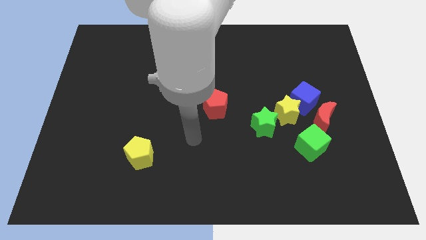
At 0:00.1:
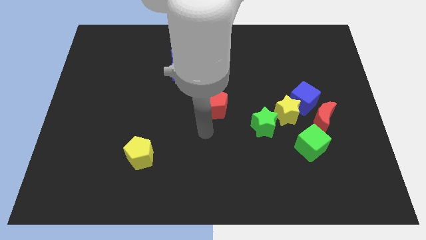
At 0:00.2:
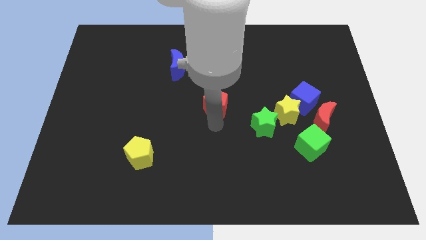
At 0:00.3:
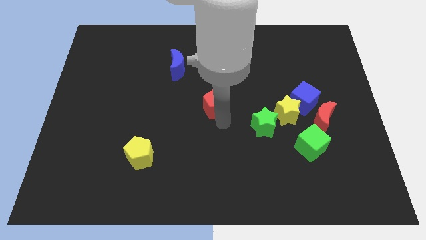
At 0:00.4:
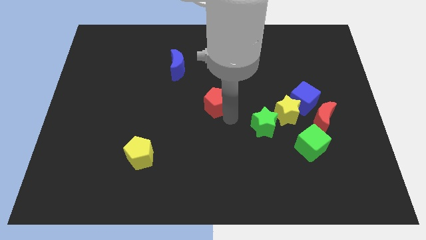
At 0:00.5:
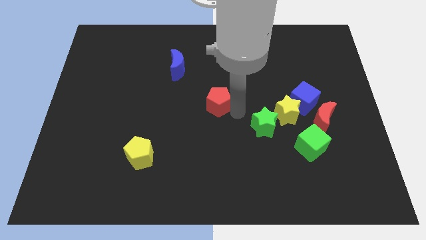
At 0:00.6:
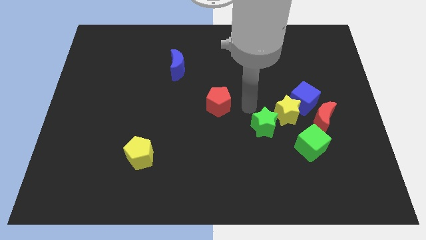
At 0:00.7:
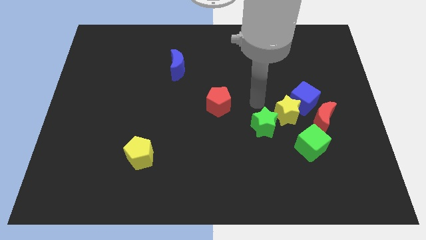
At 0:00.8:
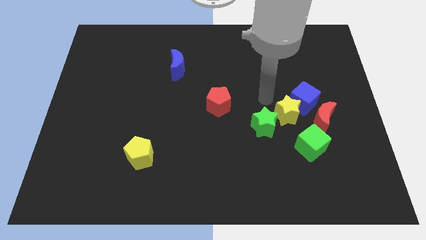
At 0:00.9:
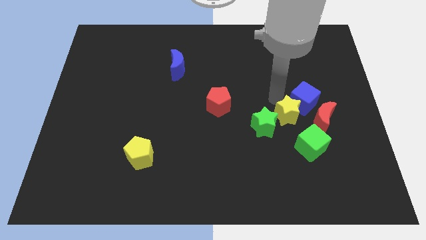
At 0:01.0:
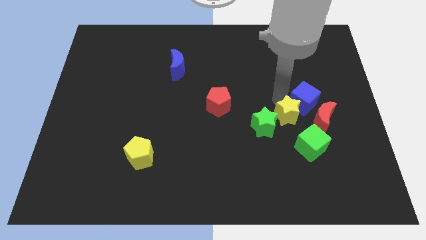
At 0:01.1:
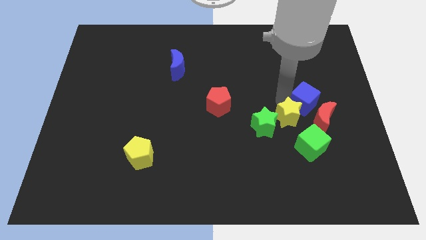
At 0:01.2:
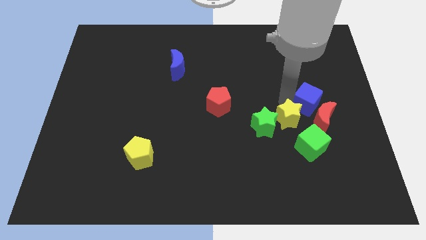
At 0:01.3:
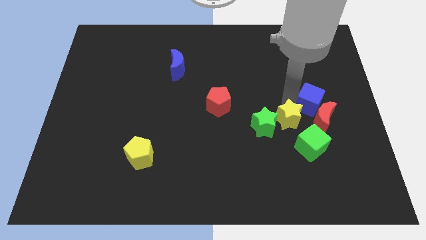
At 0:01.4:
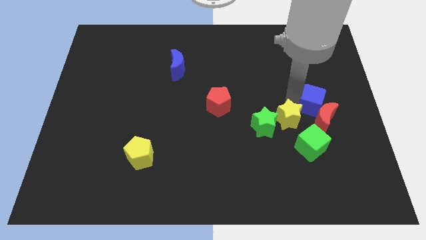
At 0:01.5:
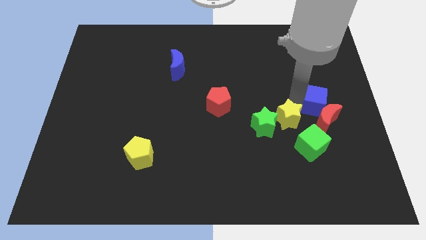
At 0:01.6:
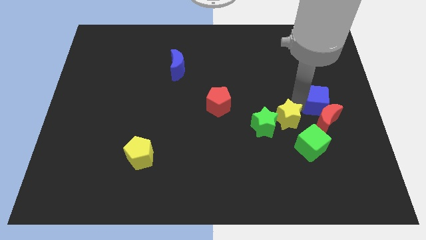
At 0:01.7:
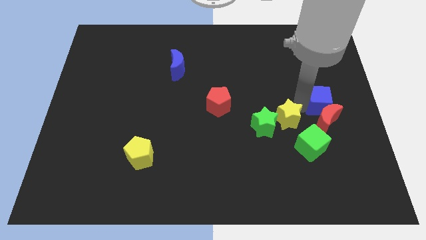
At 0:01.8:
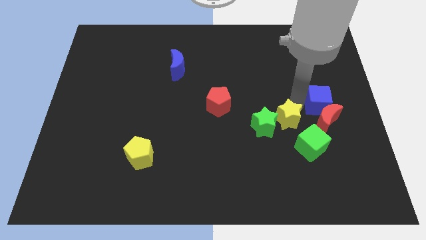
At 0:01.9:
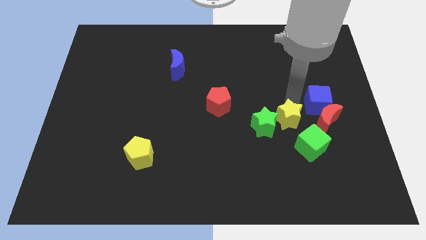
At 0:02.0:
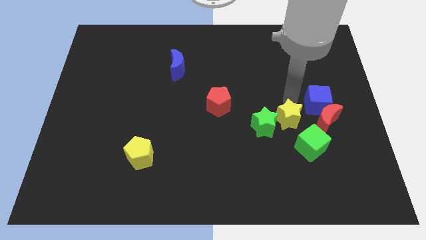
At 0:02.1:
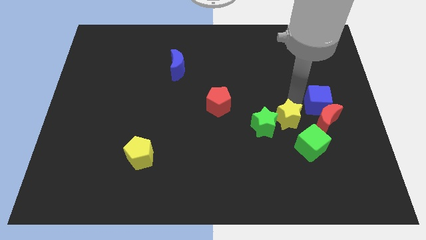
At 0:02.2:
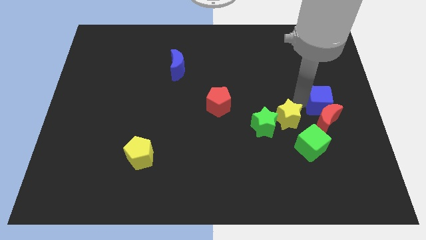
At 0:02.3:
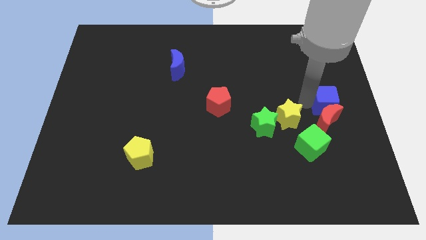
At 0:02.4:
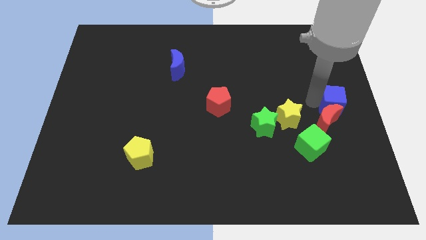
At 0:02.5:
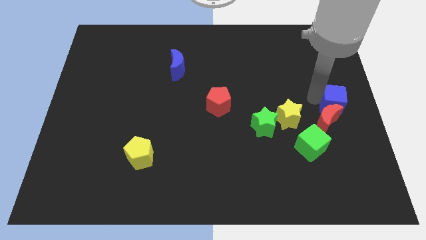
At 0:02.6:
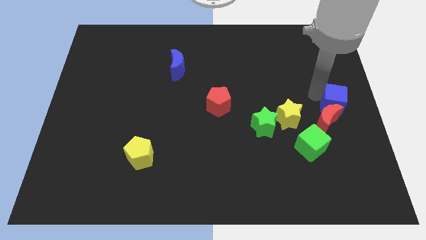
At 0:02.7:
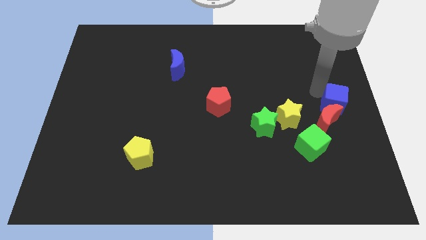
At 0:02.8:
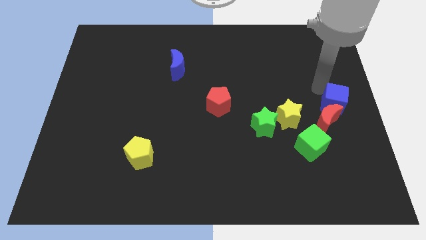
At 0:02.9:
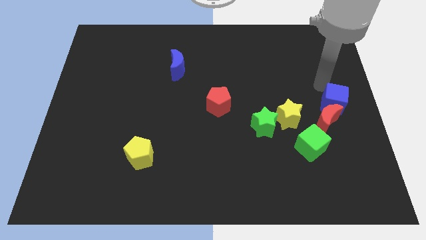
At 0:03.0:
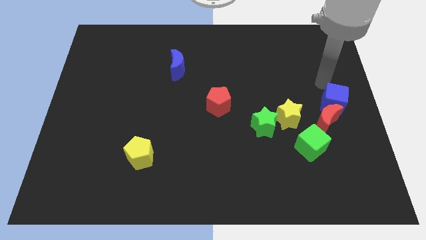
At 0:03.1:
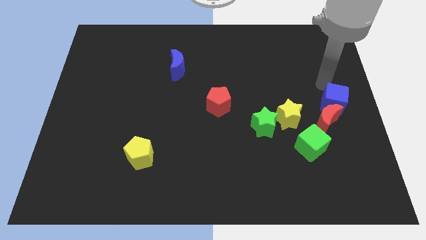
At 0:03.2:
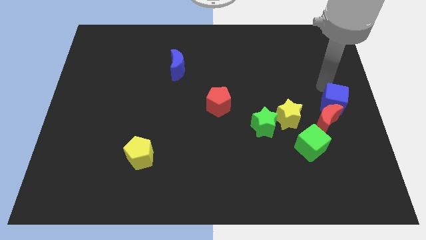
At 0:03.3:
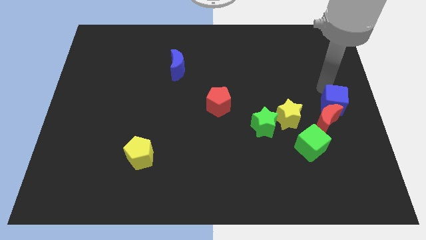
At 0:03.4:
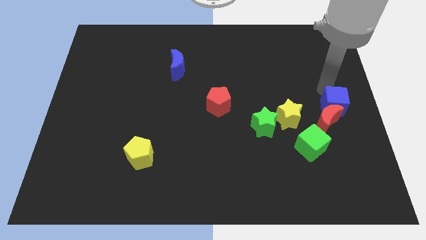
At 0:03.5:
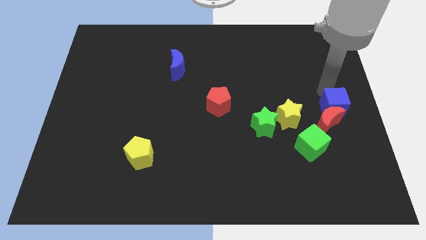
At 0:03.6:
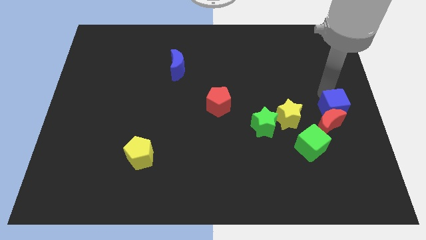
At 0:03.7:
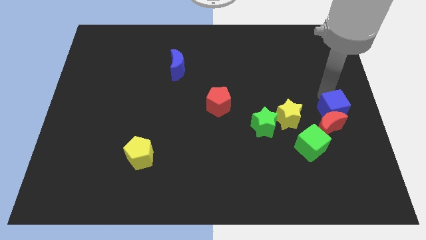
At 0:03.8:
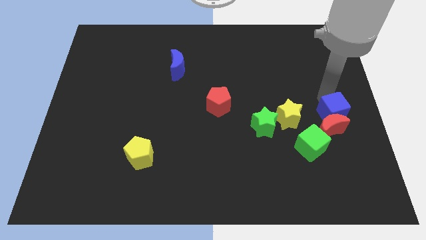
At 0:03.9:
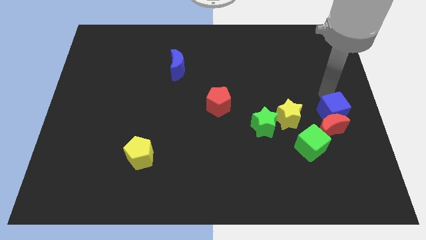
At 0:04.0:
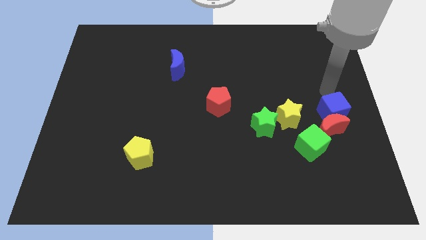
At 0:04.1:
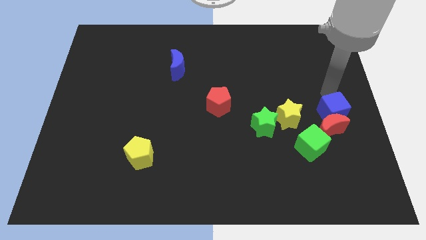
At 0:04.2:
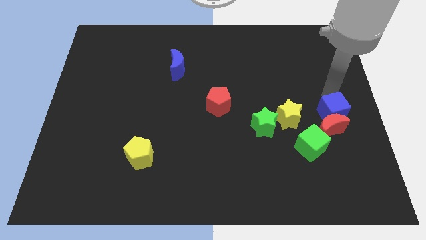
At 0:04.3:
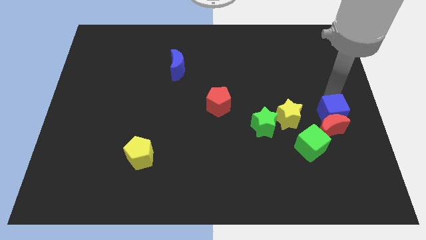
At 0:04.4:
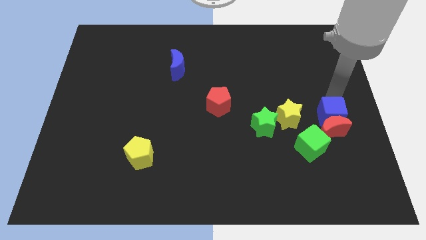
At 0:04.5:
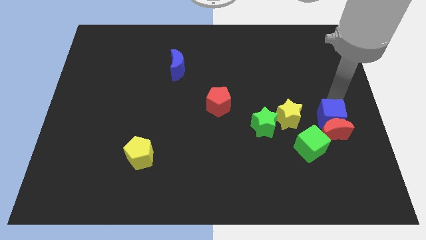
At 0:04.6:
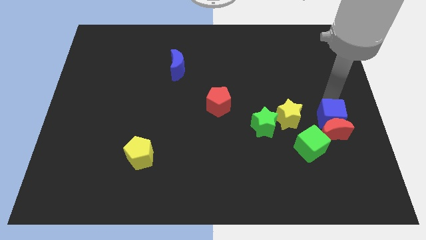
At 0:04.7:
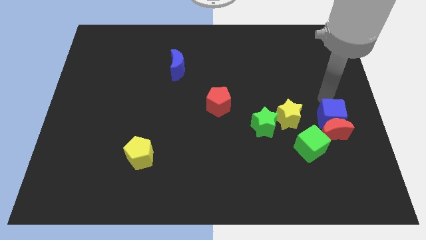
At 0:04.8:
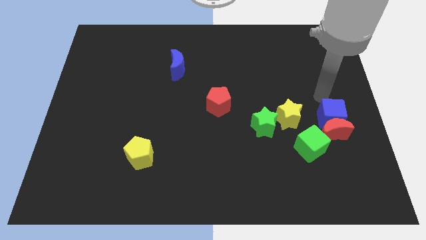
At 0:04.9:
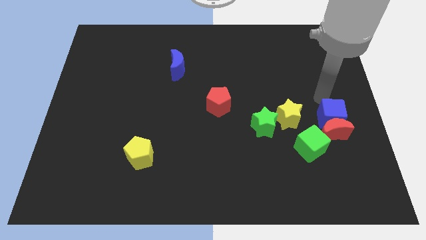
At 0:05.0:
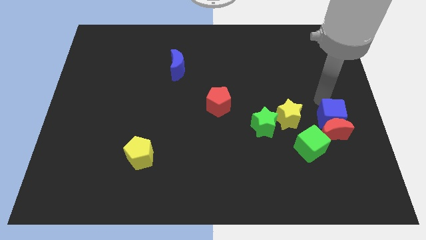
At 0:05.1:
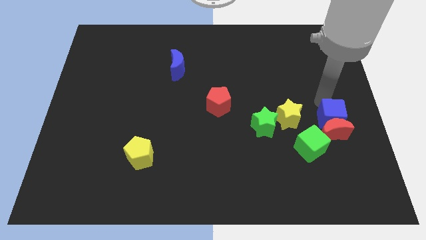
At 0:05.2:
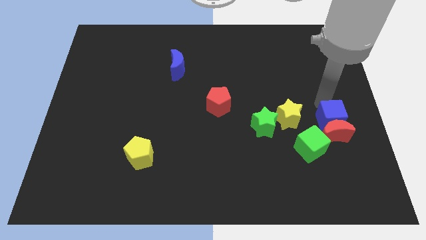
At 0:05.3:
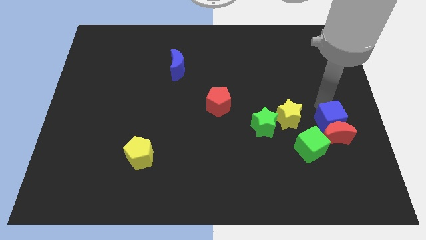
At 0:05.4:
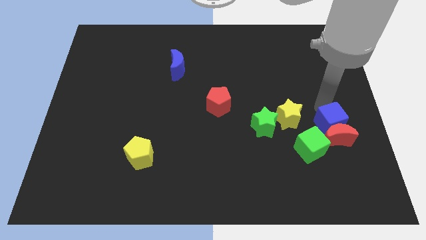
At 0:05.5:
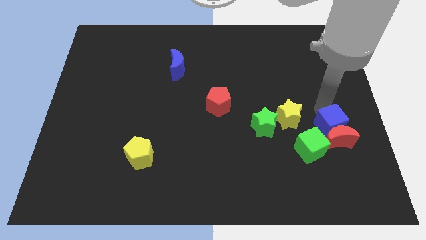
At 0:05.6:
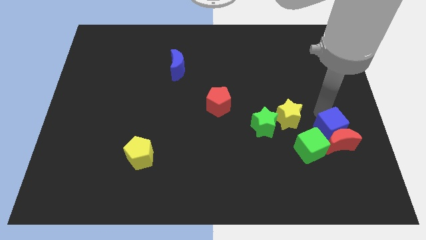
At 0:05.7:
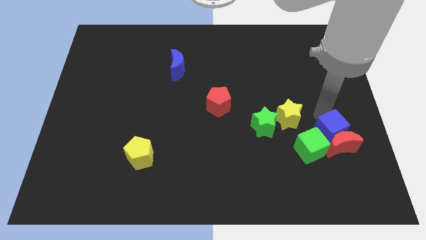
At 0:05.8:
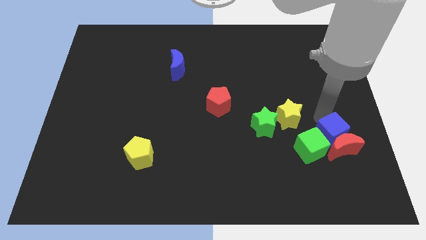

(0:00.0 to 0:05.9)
move the blue cube towards the green cube

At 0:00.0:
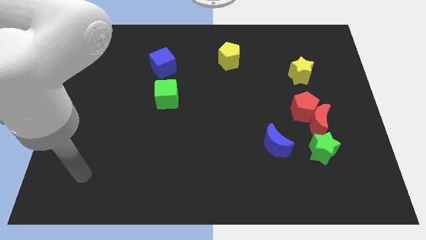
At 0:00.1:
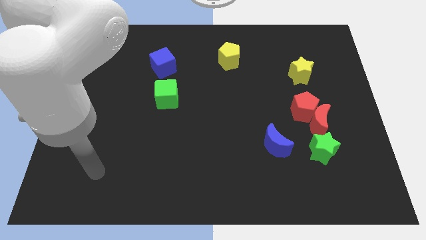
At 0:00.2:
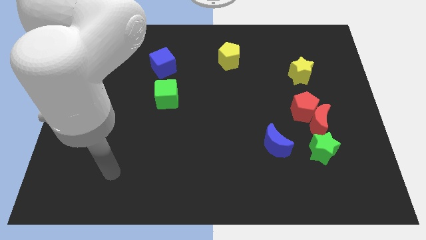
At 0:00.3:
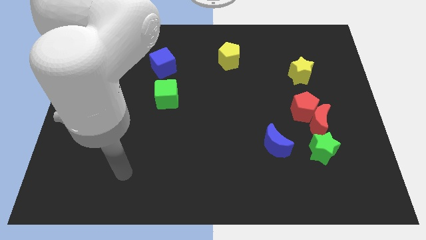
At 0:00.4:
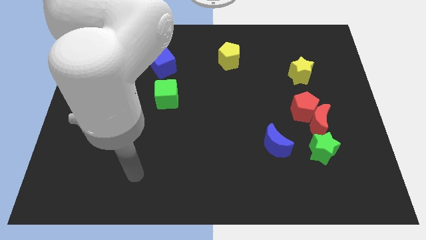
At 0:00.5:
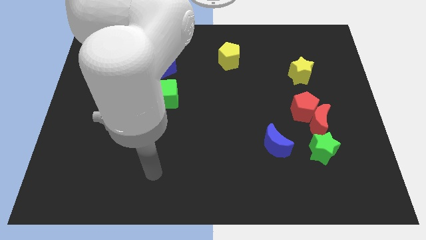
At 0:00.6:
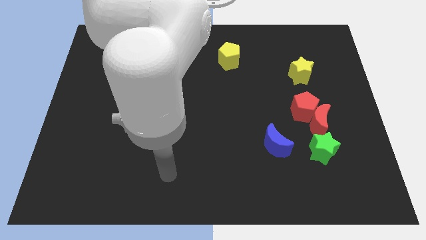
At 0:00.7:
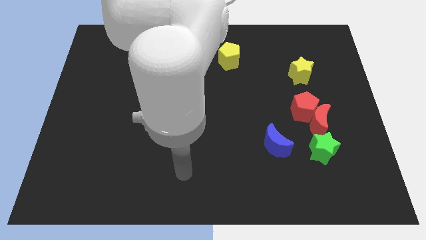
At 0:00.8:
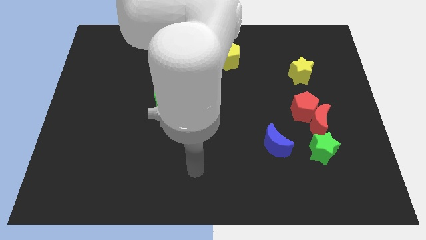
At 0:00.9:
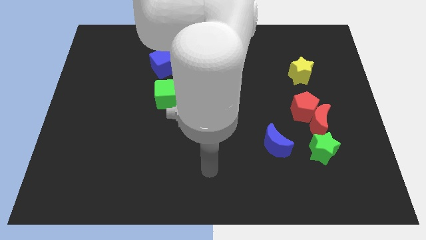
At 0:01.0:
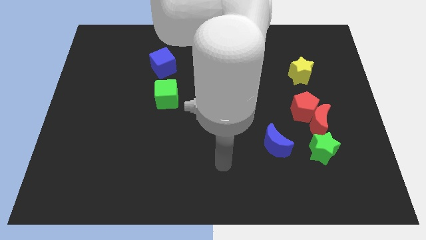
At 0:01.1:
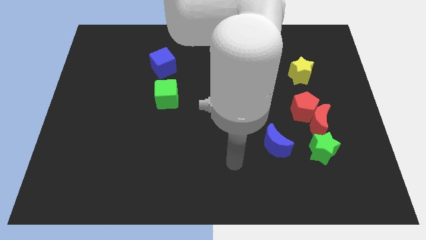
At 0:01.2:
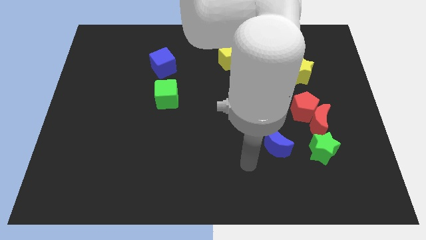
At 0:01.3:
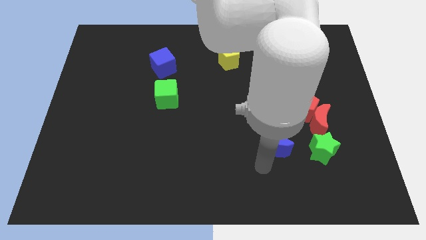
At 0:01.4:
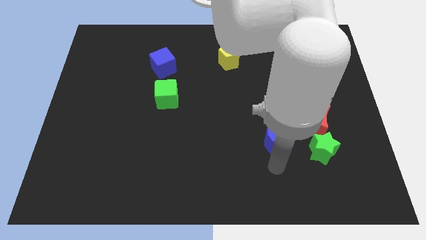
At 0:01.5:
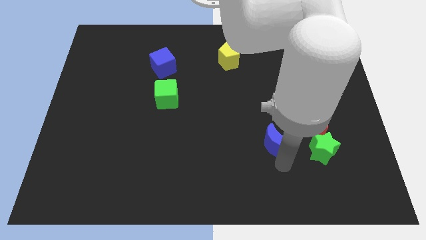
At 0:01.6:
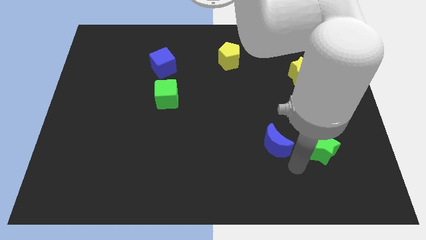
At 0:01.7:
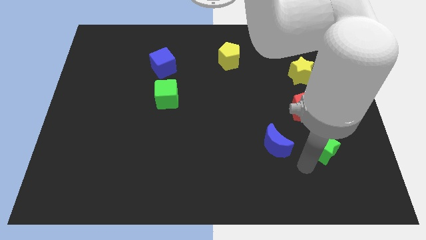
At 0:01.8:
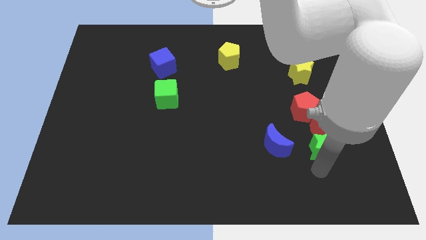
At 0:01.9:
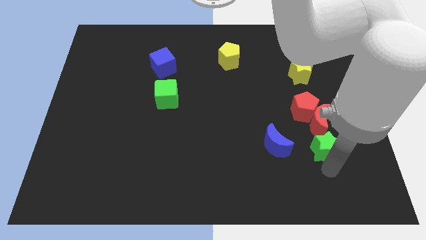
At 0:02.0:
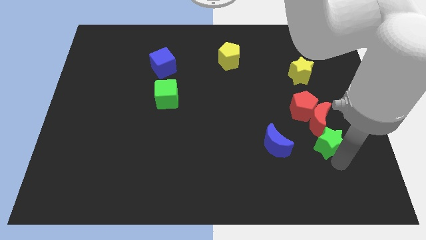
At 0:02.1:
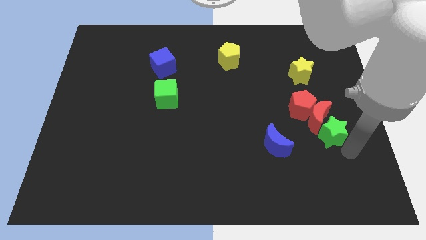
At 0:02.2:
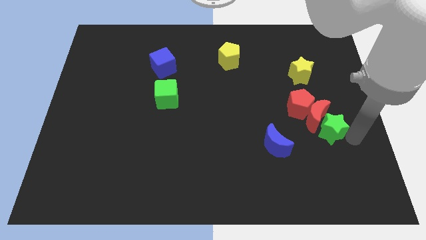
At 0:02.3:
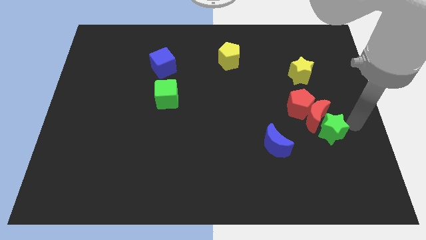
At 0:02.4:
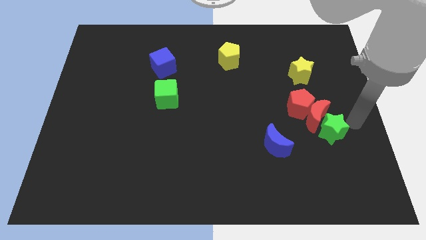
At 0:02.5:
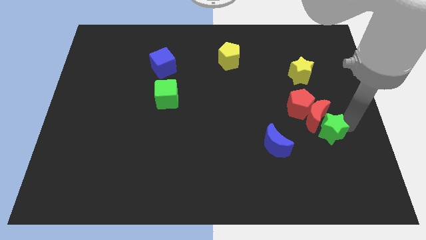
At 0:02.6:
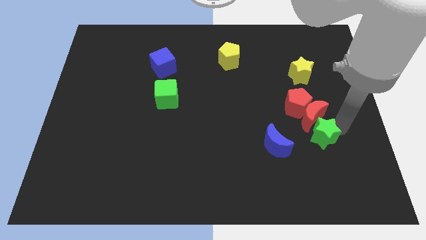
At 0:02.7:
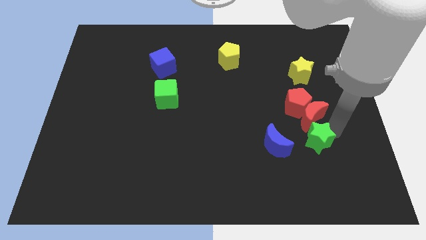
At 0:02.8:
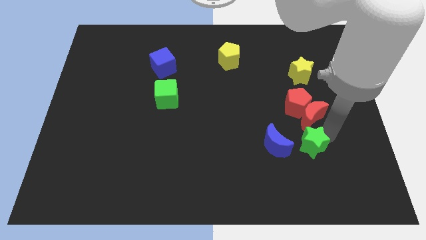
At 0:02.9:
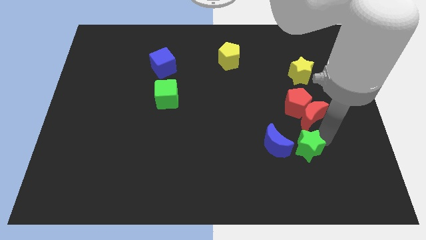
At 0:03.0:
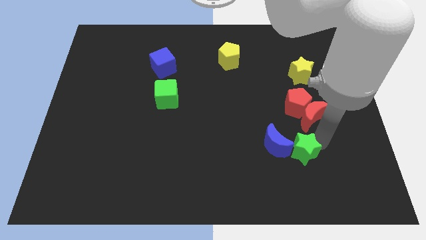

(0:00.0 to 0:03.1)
put the green star close to the blue moon
